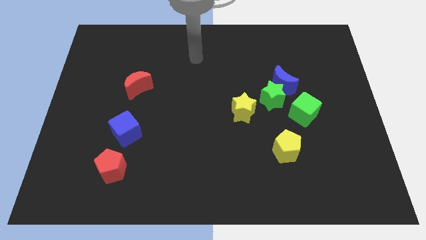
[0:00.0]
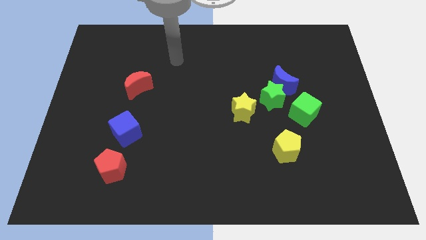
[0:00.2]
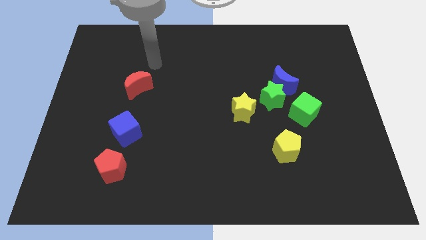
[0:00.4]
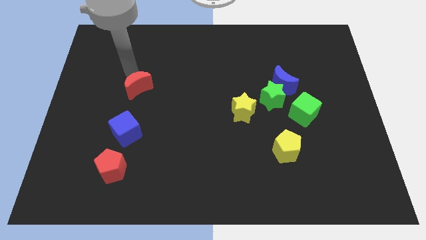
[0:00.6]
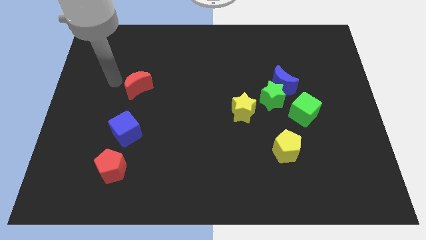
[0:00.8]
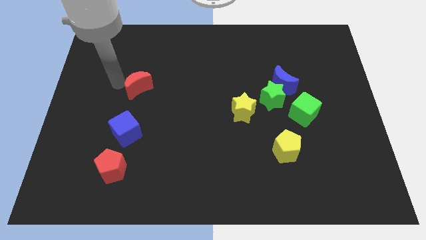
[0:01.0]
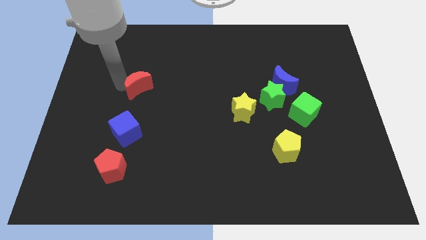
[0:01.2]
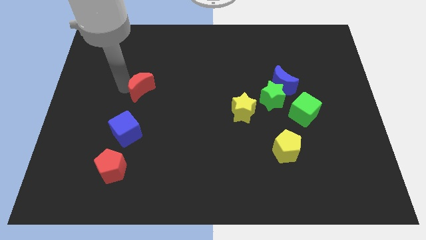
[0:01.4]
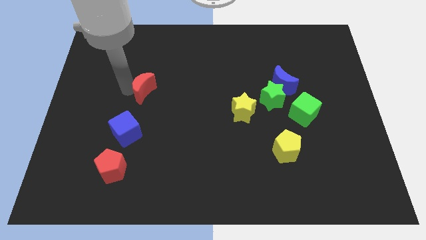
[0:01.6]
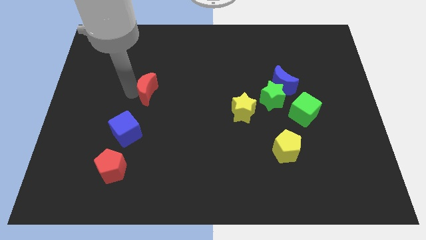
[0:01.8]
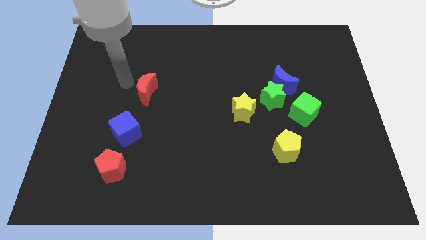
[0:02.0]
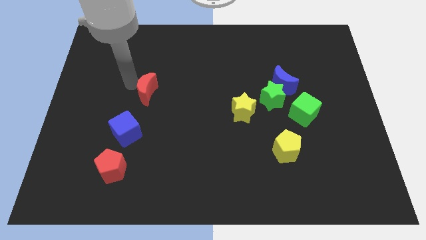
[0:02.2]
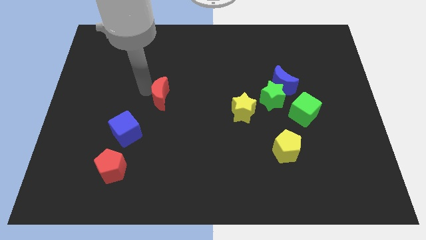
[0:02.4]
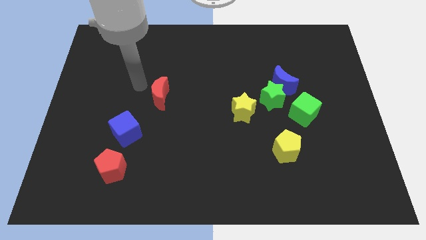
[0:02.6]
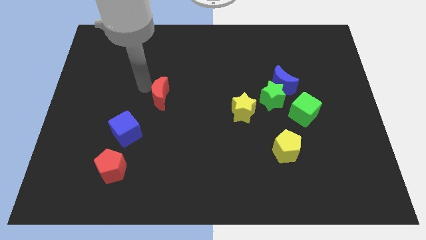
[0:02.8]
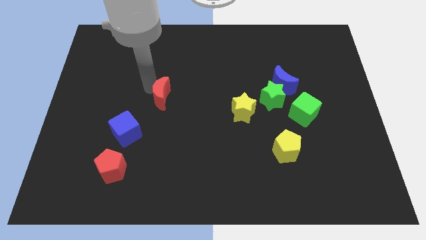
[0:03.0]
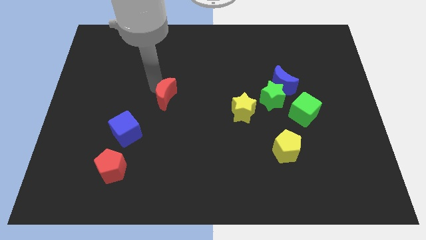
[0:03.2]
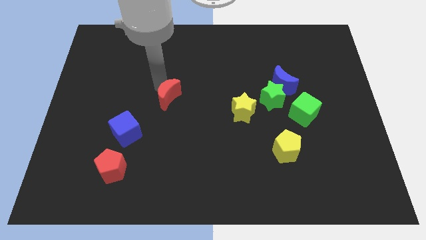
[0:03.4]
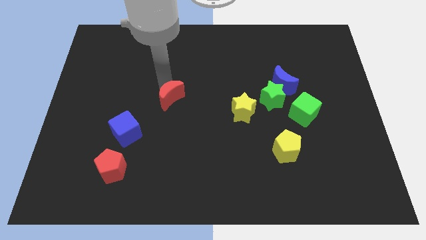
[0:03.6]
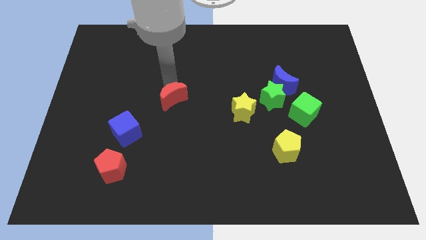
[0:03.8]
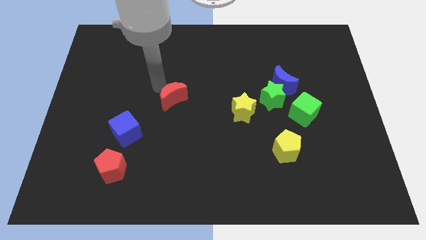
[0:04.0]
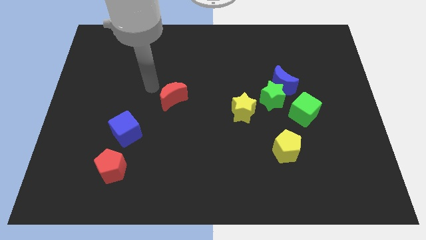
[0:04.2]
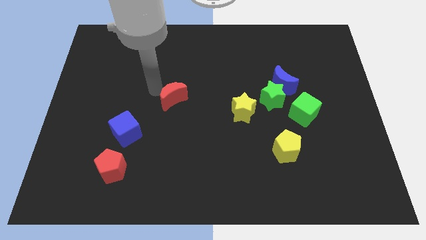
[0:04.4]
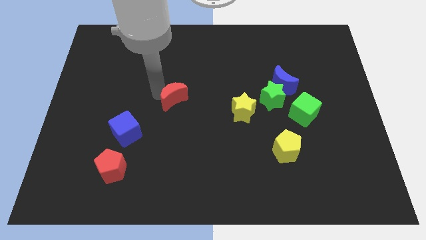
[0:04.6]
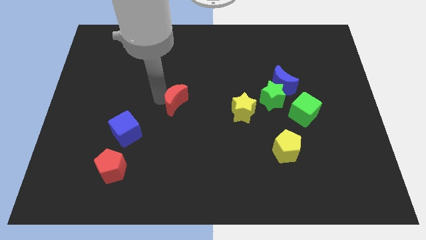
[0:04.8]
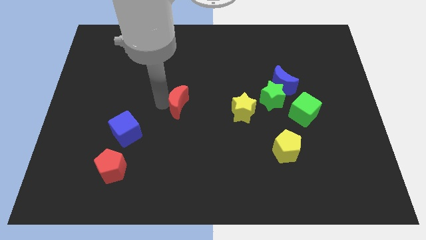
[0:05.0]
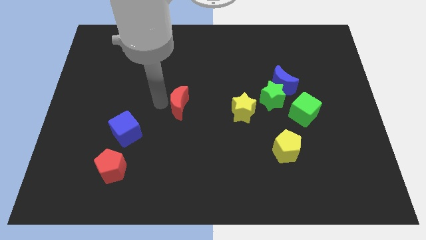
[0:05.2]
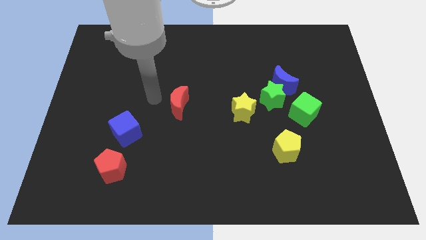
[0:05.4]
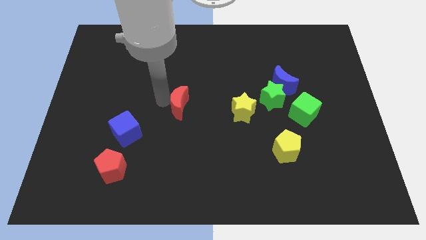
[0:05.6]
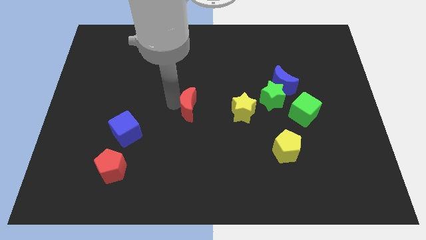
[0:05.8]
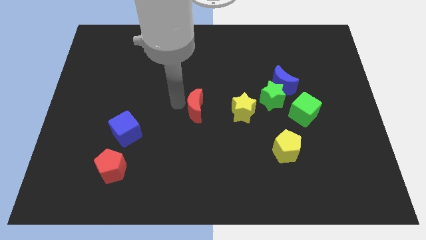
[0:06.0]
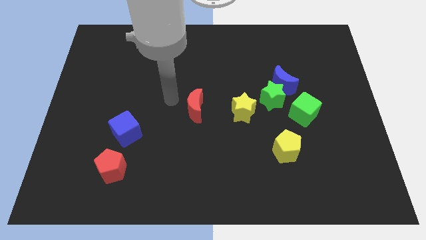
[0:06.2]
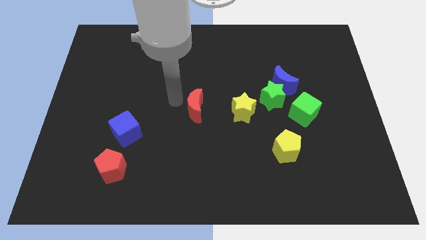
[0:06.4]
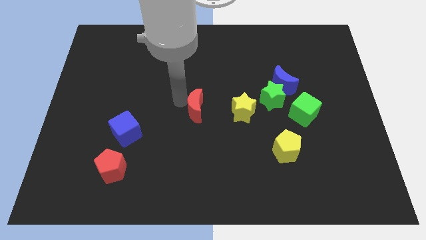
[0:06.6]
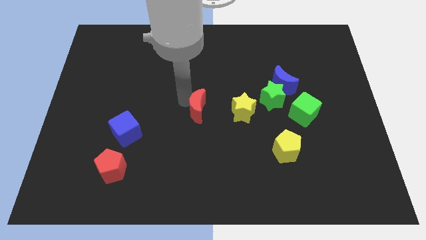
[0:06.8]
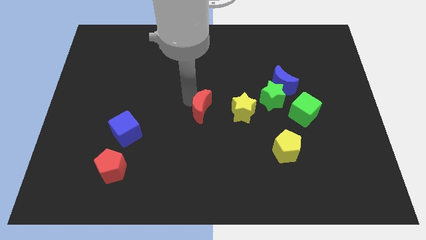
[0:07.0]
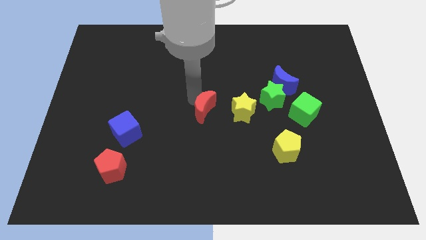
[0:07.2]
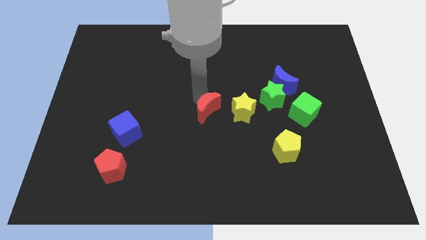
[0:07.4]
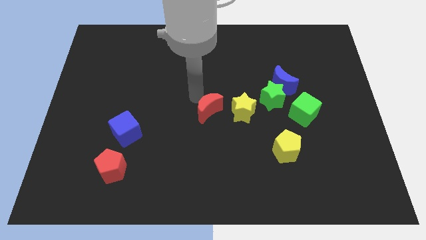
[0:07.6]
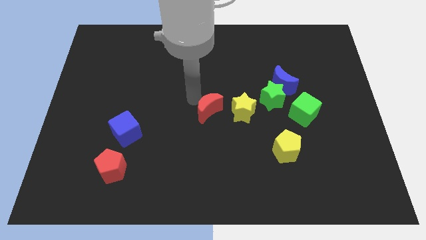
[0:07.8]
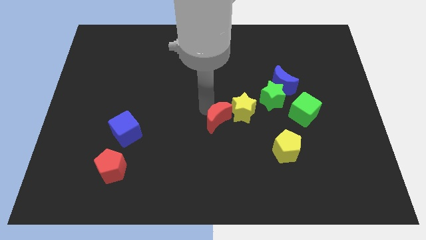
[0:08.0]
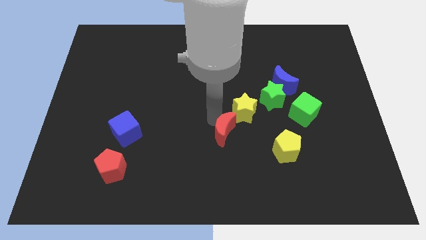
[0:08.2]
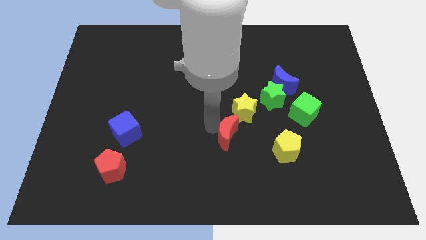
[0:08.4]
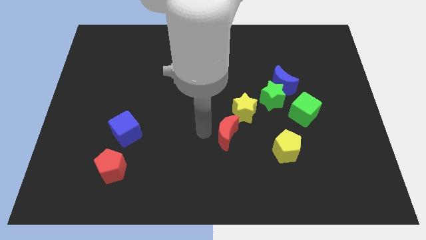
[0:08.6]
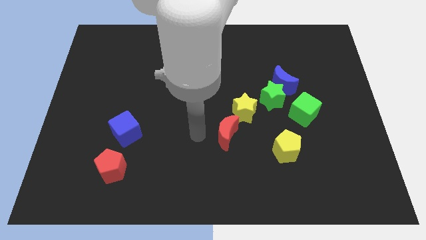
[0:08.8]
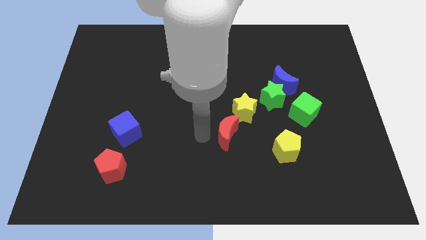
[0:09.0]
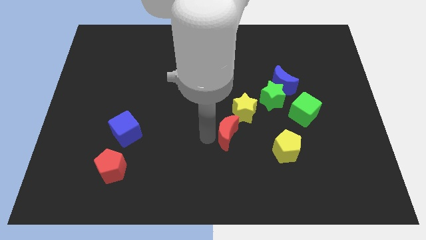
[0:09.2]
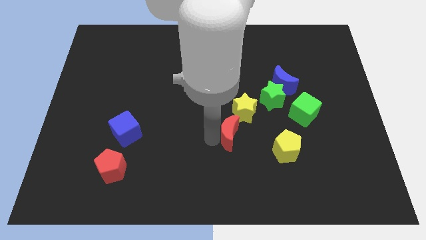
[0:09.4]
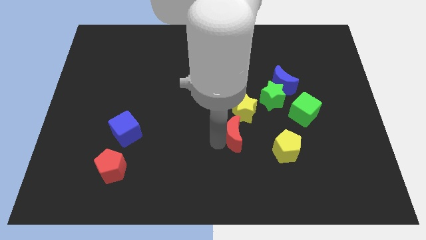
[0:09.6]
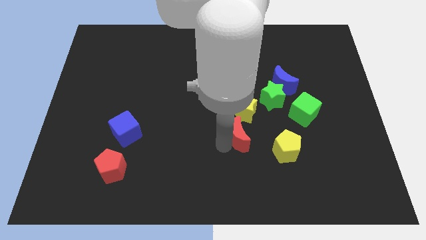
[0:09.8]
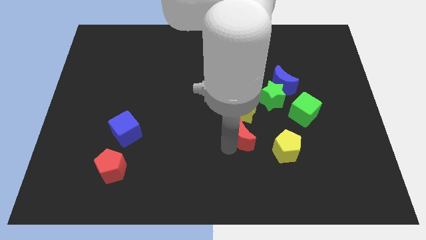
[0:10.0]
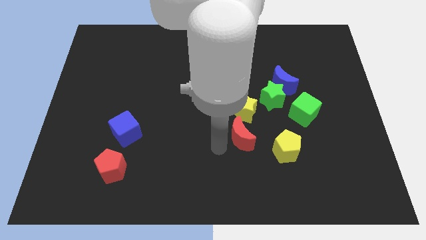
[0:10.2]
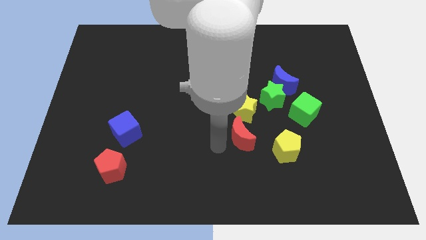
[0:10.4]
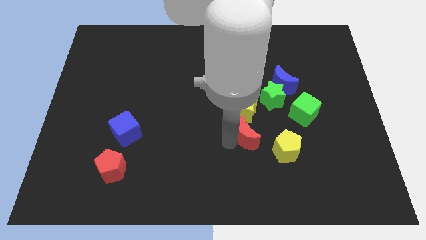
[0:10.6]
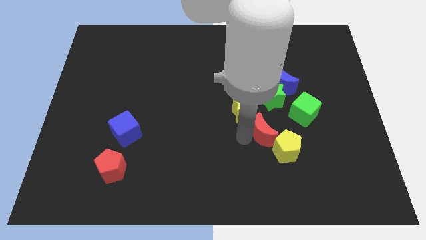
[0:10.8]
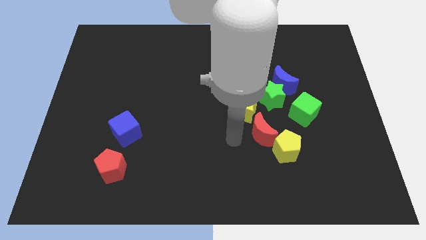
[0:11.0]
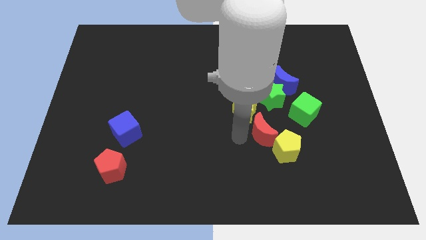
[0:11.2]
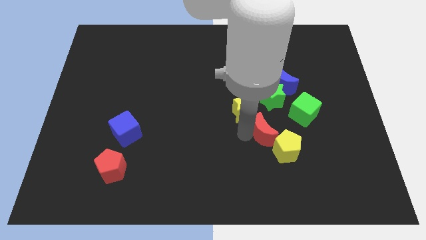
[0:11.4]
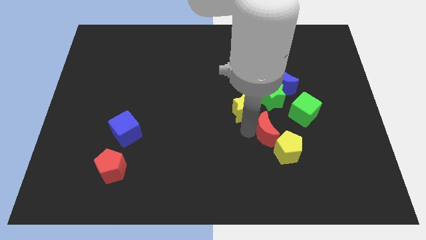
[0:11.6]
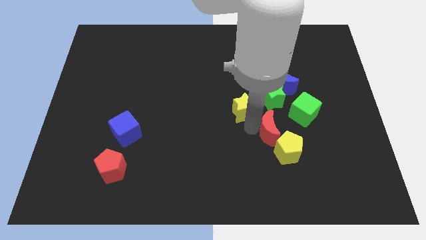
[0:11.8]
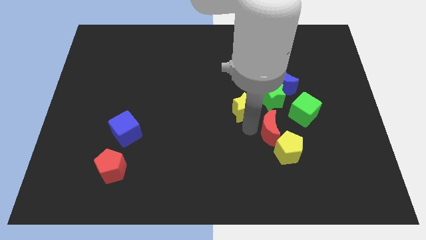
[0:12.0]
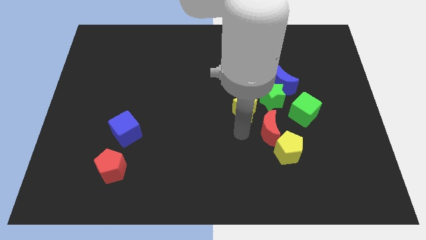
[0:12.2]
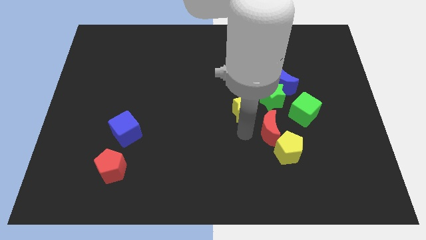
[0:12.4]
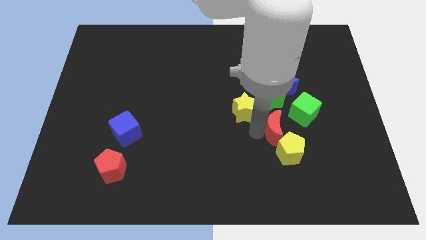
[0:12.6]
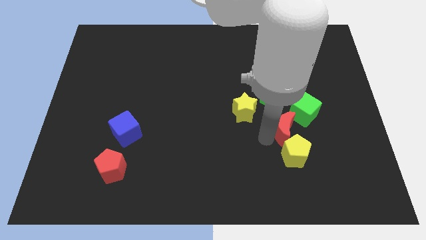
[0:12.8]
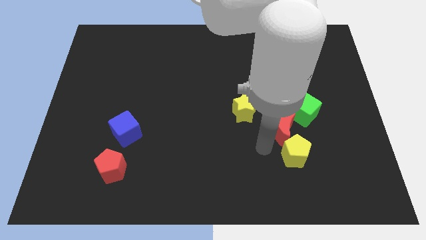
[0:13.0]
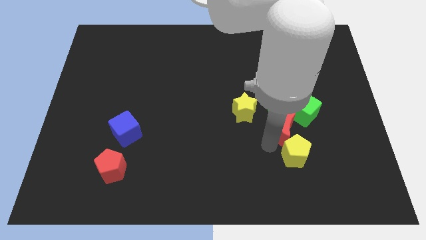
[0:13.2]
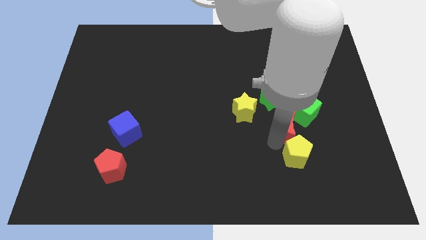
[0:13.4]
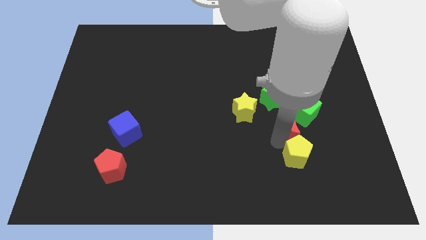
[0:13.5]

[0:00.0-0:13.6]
put the red moon to the green cube

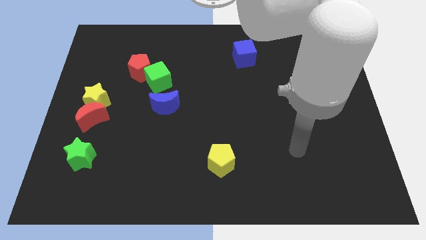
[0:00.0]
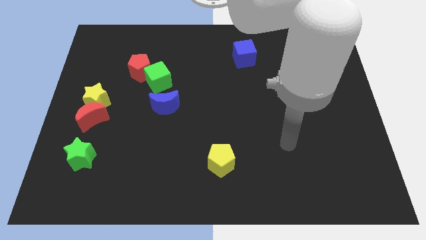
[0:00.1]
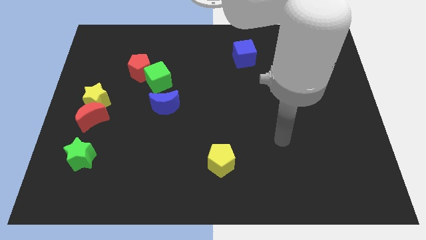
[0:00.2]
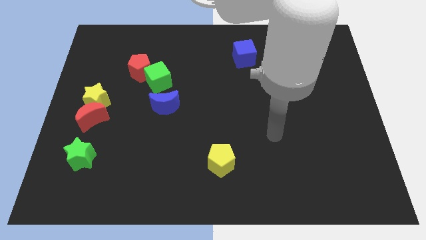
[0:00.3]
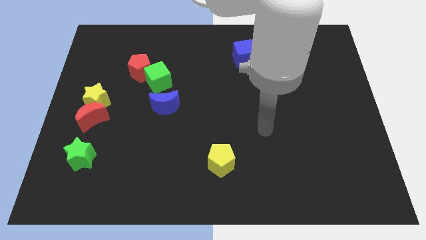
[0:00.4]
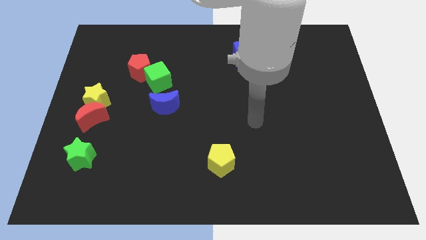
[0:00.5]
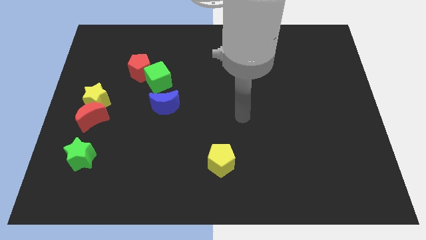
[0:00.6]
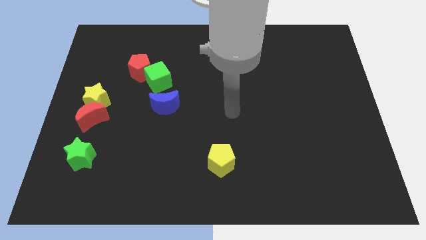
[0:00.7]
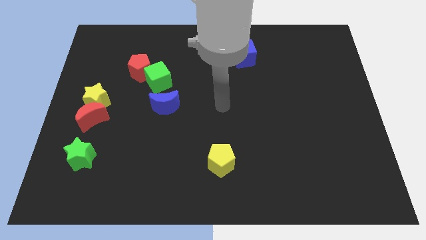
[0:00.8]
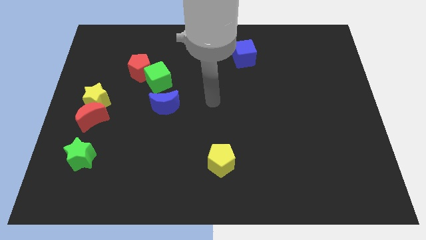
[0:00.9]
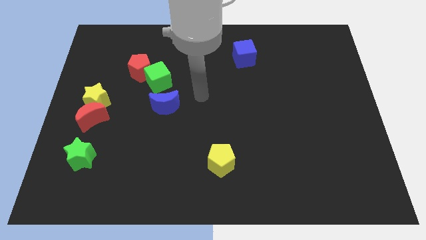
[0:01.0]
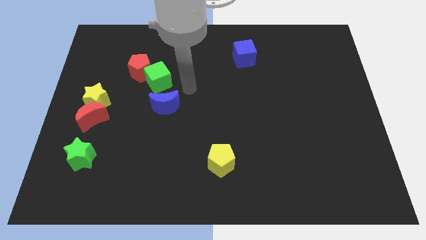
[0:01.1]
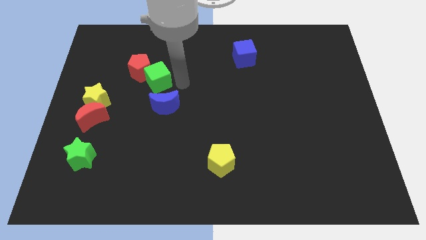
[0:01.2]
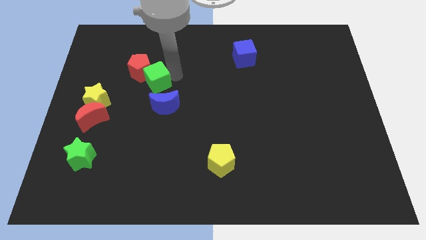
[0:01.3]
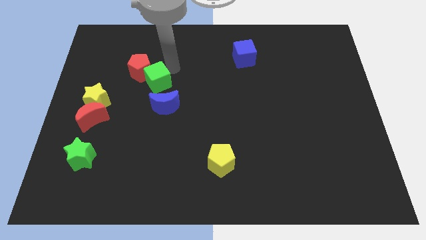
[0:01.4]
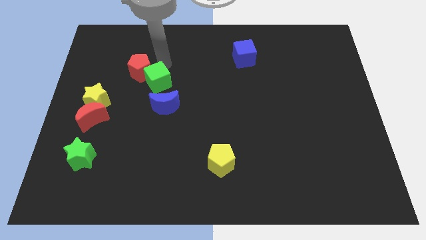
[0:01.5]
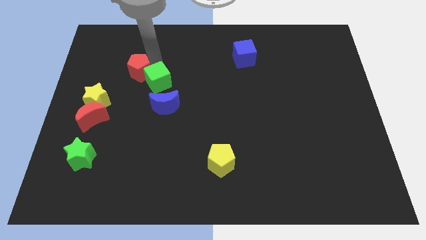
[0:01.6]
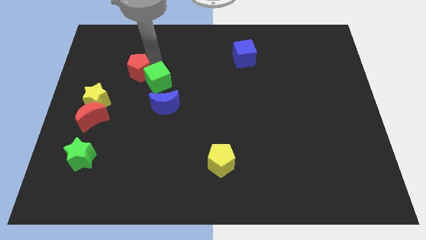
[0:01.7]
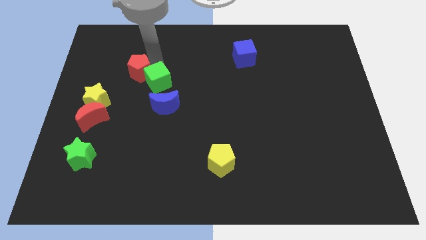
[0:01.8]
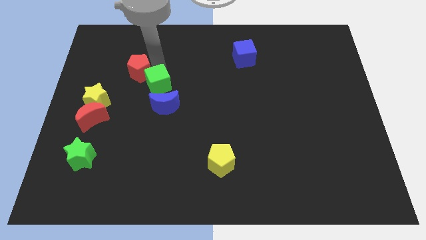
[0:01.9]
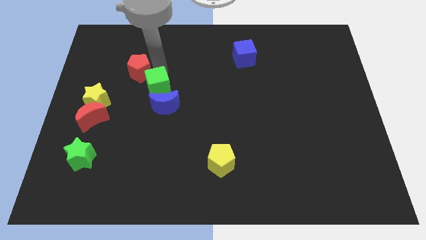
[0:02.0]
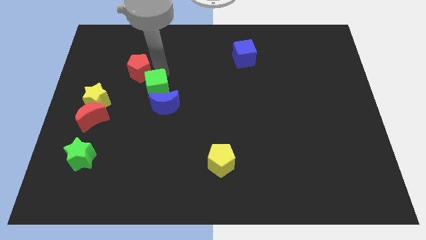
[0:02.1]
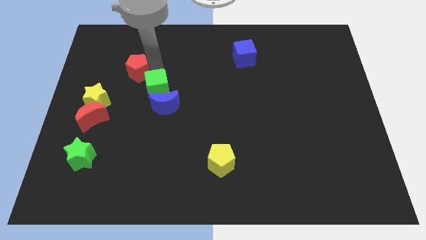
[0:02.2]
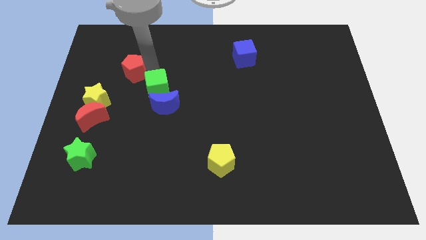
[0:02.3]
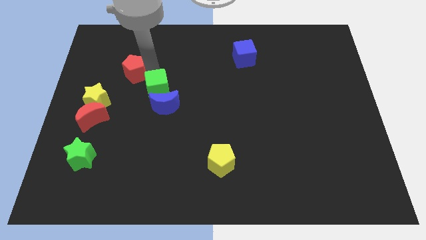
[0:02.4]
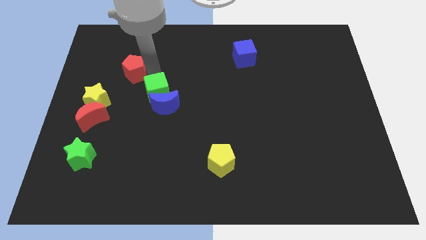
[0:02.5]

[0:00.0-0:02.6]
slide the green cube towards the blue moon
